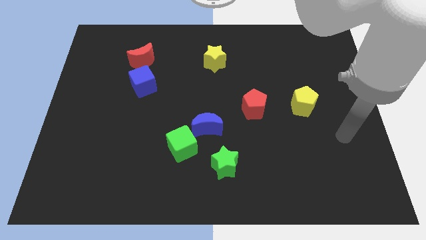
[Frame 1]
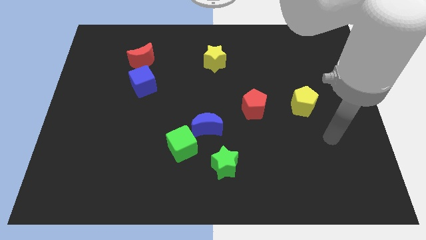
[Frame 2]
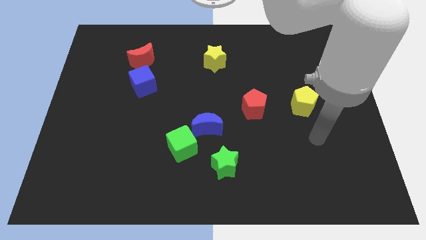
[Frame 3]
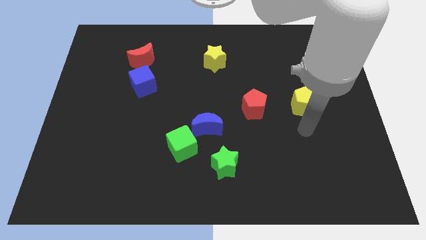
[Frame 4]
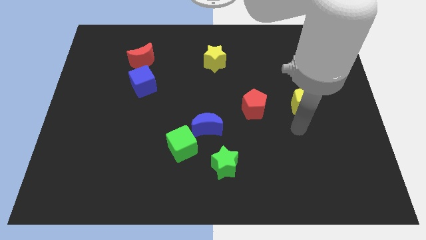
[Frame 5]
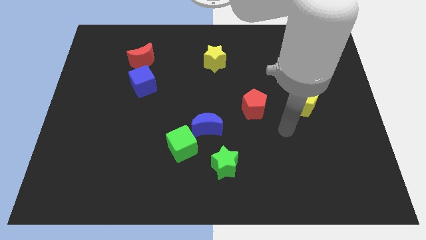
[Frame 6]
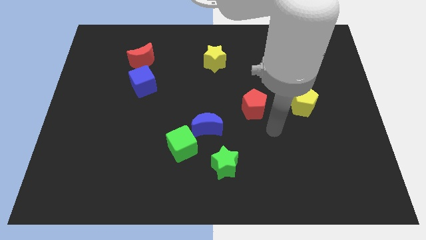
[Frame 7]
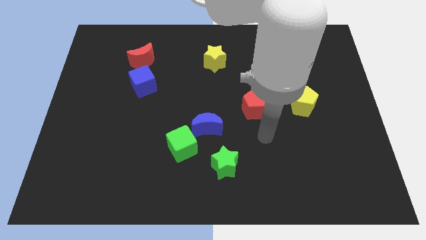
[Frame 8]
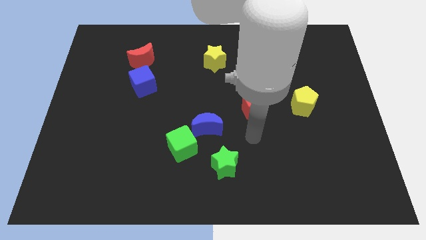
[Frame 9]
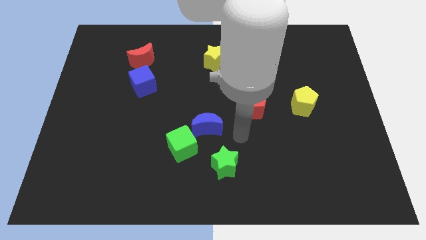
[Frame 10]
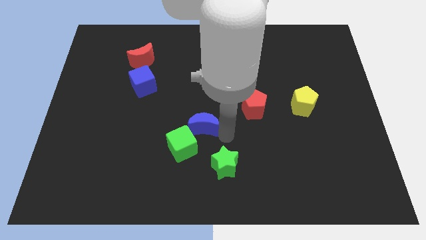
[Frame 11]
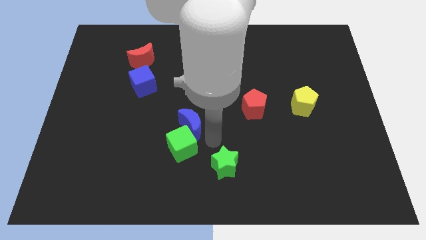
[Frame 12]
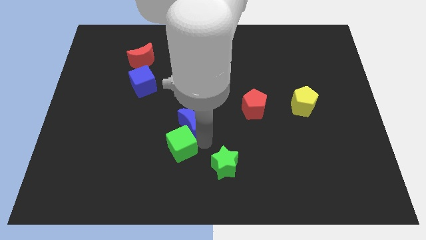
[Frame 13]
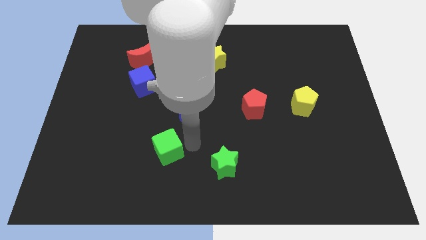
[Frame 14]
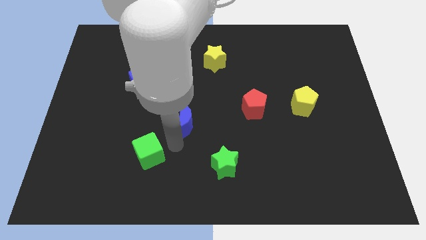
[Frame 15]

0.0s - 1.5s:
move the blue moon away from the green cube

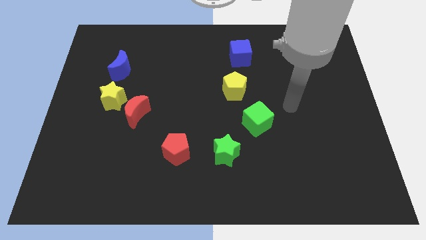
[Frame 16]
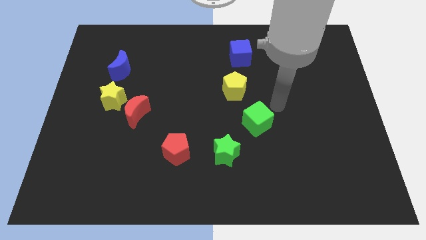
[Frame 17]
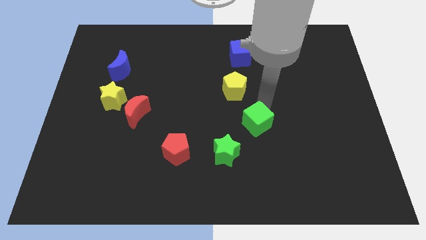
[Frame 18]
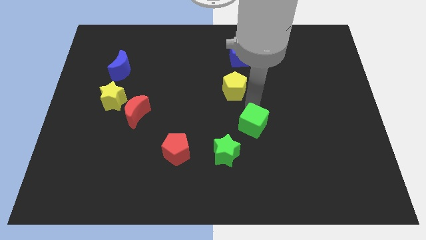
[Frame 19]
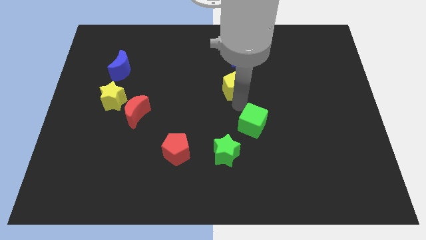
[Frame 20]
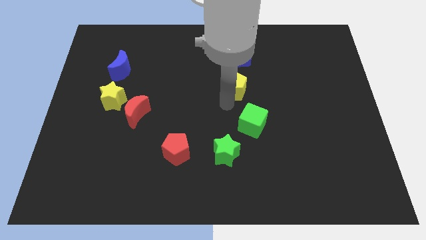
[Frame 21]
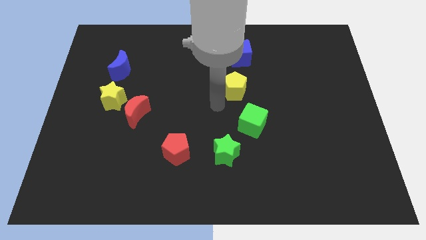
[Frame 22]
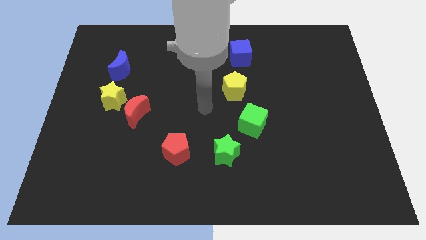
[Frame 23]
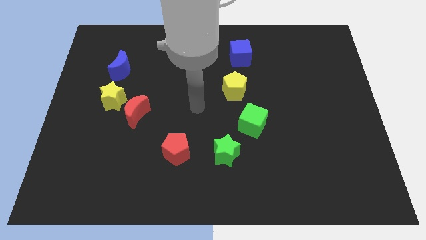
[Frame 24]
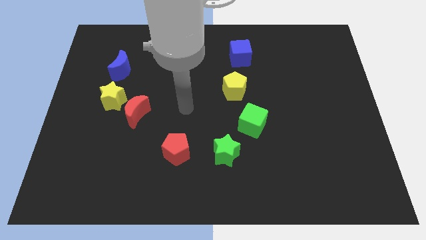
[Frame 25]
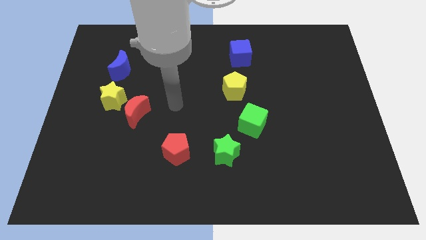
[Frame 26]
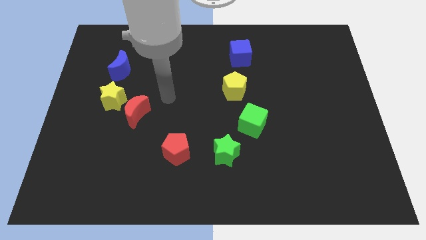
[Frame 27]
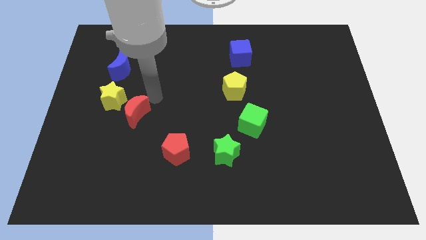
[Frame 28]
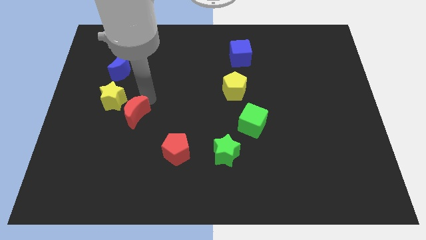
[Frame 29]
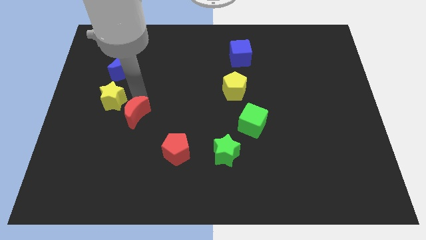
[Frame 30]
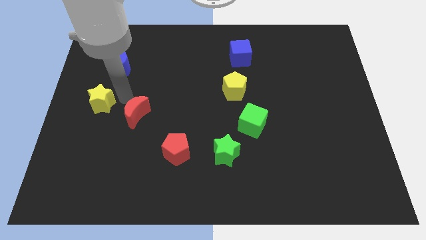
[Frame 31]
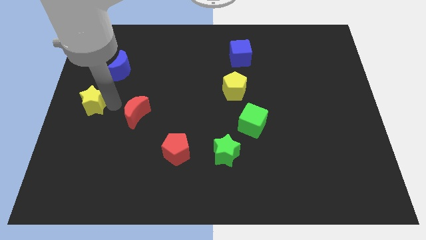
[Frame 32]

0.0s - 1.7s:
move the red moon away from the yellow star

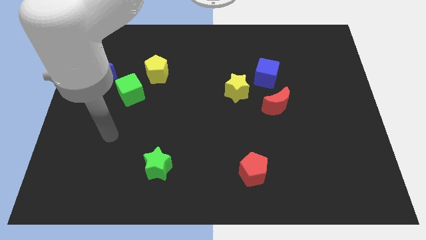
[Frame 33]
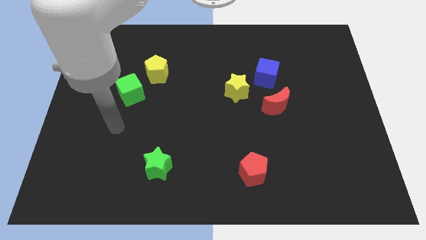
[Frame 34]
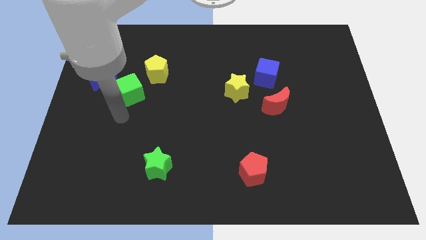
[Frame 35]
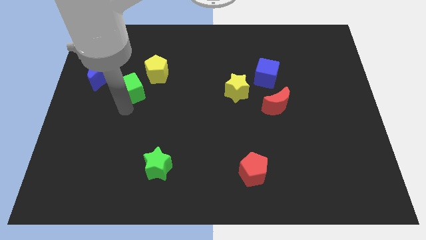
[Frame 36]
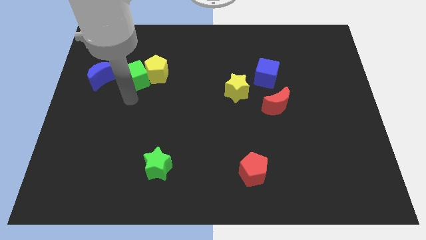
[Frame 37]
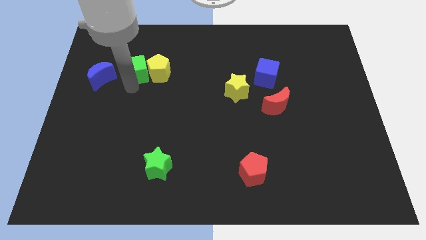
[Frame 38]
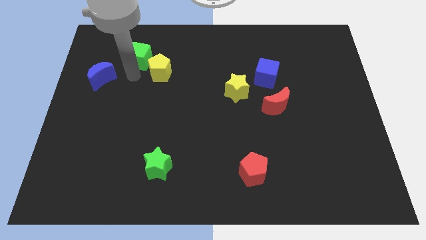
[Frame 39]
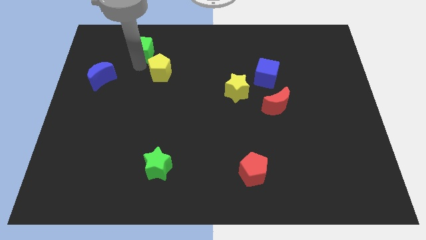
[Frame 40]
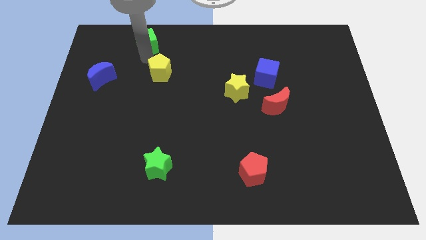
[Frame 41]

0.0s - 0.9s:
move the yellow pentagon away from the green cube

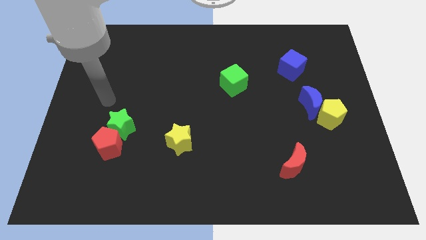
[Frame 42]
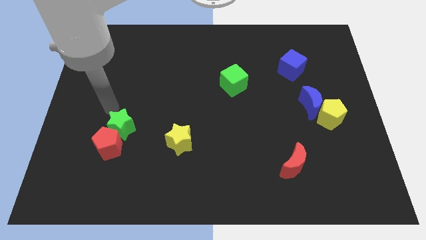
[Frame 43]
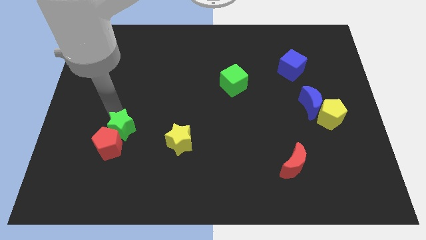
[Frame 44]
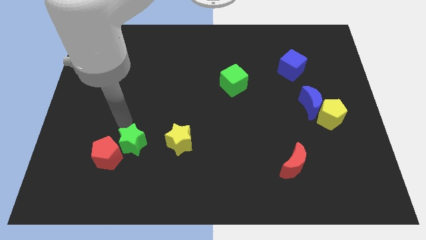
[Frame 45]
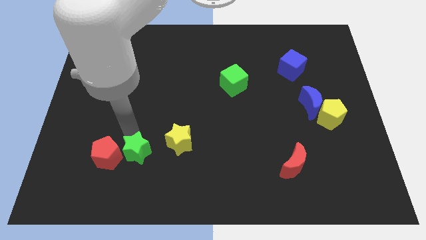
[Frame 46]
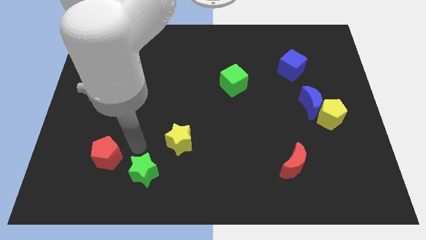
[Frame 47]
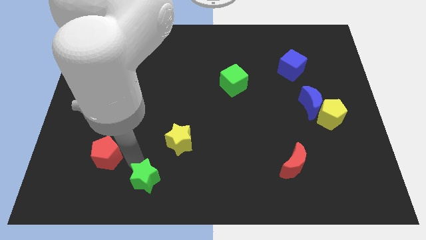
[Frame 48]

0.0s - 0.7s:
separate the red pentagon from the green star

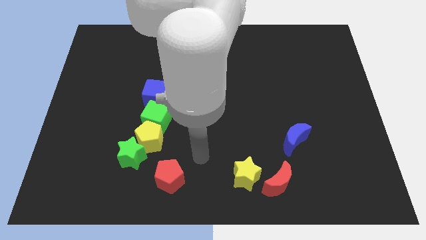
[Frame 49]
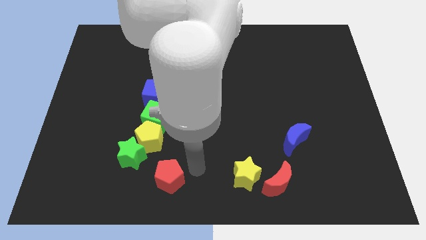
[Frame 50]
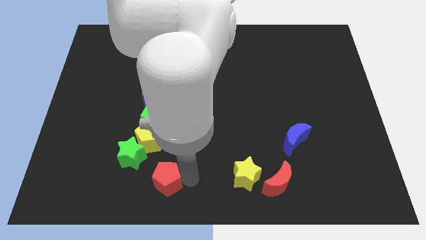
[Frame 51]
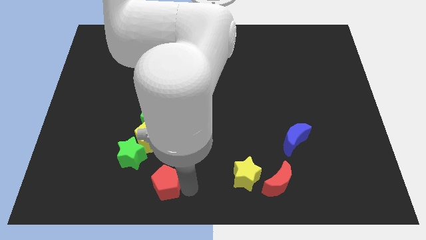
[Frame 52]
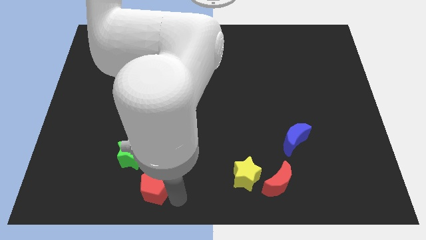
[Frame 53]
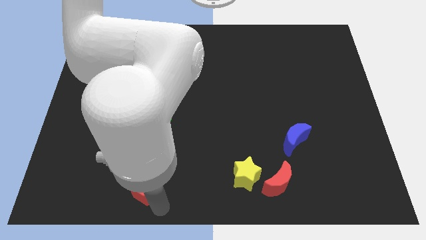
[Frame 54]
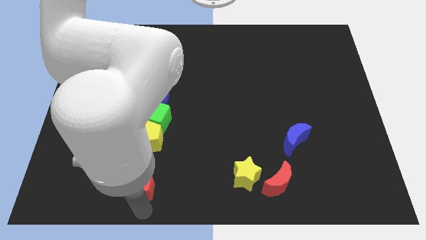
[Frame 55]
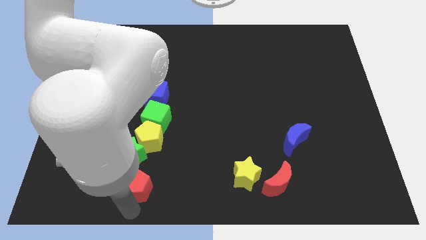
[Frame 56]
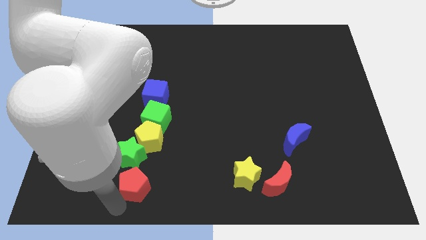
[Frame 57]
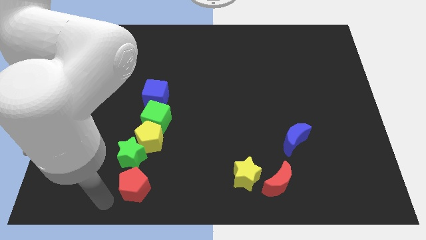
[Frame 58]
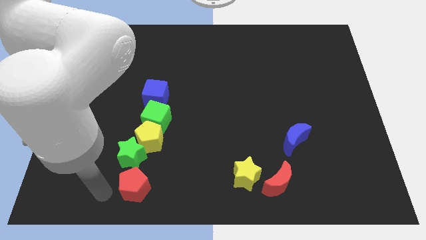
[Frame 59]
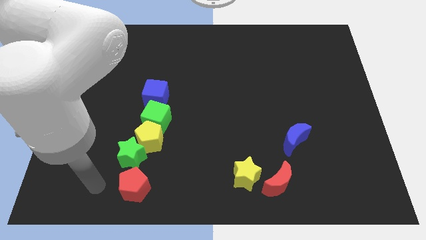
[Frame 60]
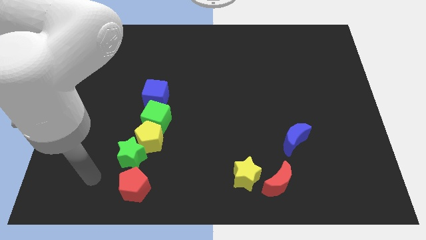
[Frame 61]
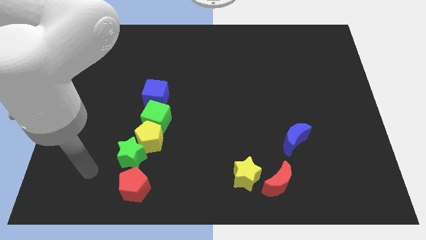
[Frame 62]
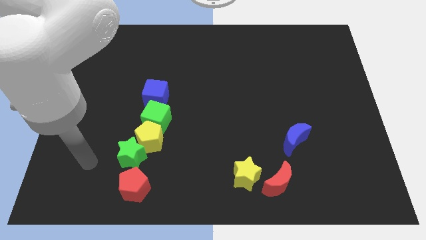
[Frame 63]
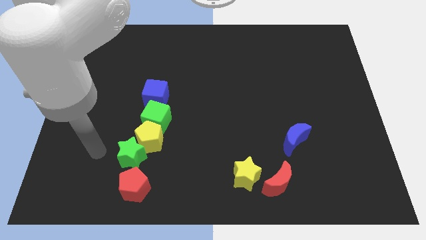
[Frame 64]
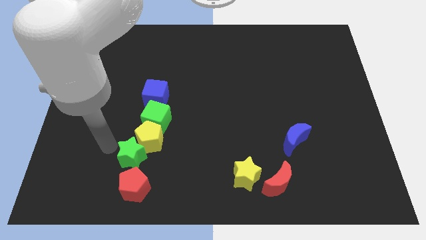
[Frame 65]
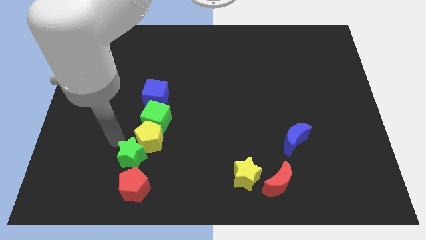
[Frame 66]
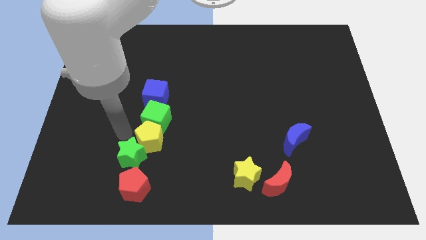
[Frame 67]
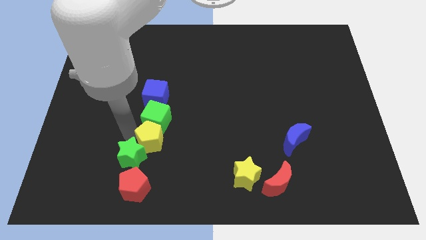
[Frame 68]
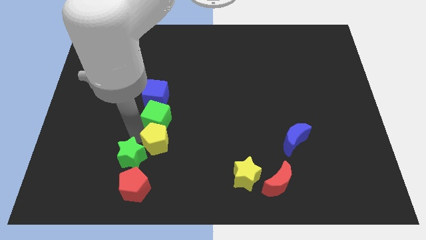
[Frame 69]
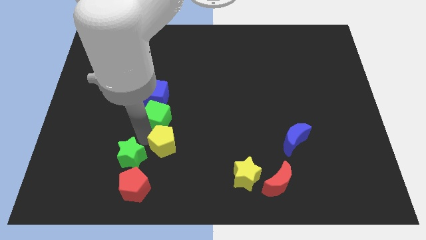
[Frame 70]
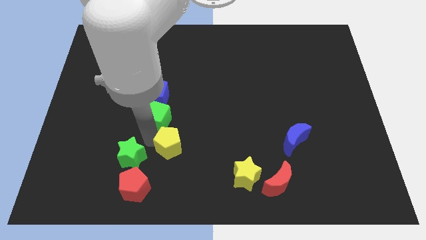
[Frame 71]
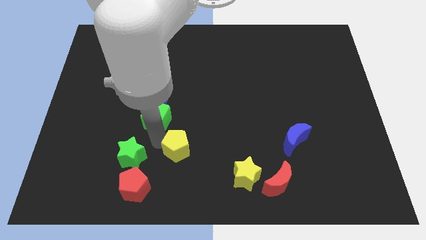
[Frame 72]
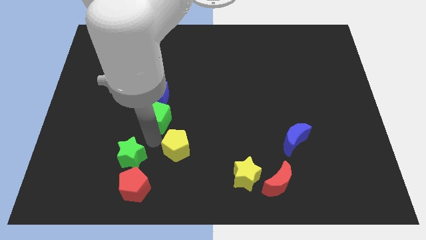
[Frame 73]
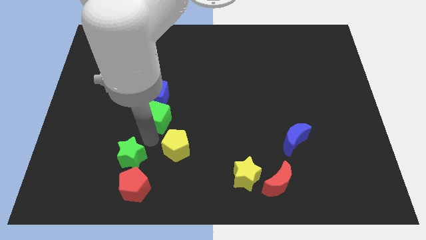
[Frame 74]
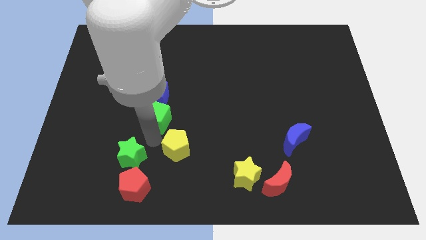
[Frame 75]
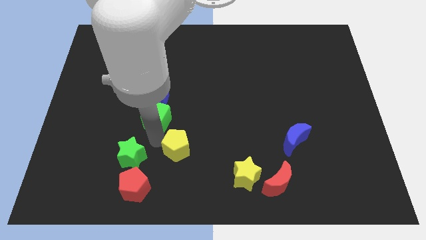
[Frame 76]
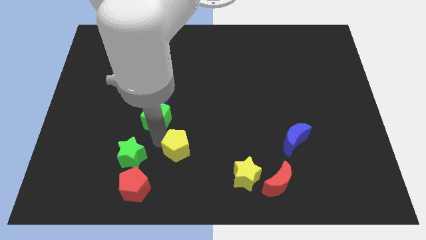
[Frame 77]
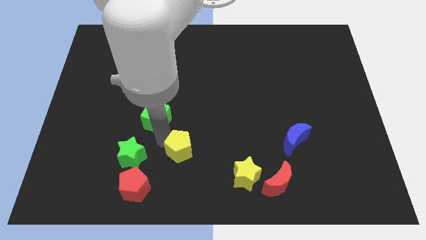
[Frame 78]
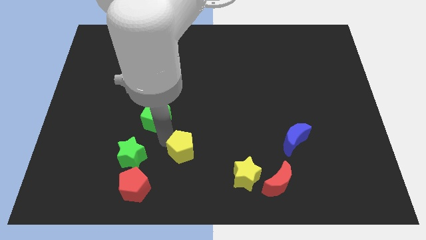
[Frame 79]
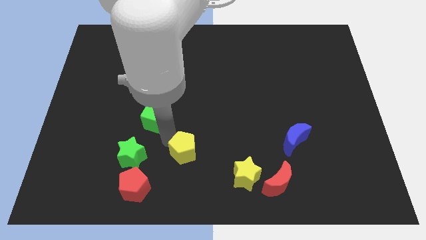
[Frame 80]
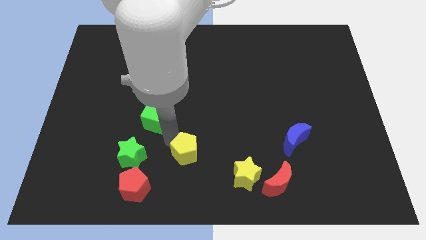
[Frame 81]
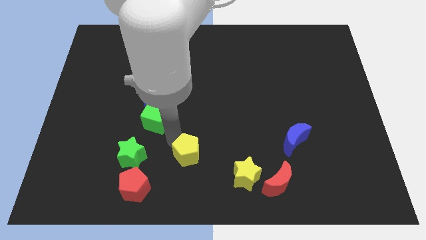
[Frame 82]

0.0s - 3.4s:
separate the yellow pentagon from the green cube and green star

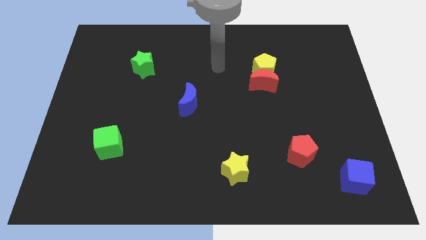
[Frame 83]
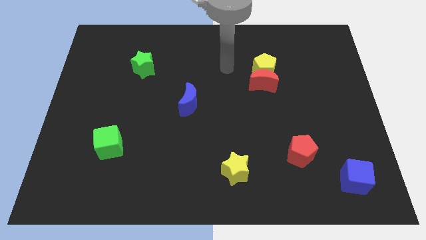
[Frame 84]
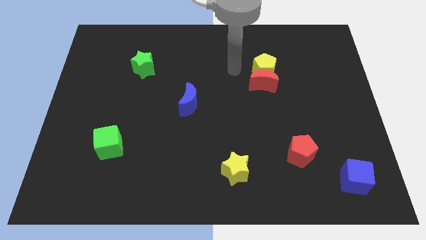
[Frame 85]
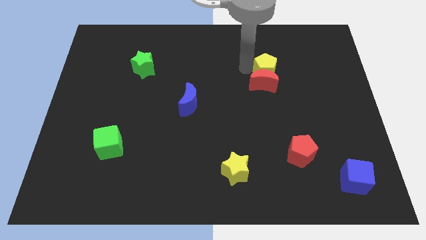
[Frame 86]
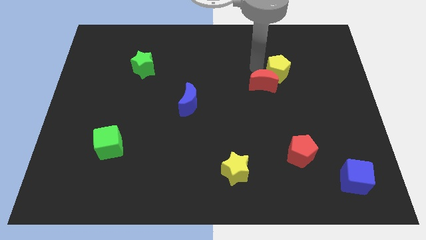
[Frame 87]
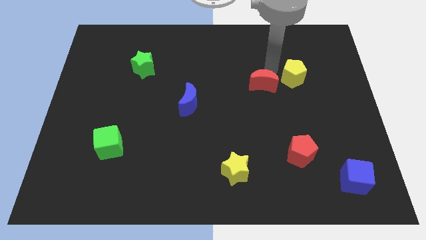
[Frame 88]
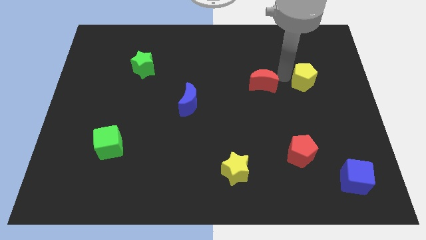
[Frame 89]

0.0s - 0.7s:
move the red moon away from the yellow pentagon

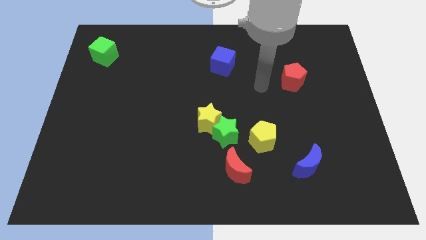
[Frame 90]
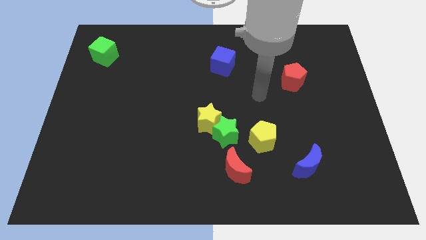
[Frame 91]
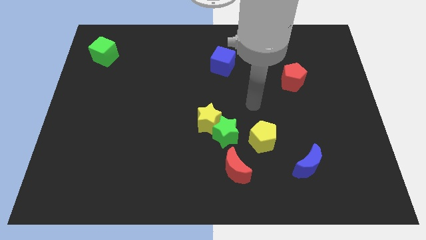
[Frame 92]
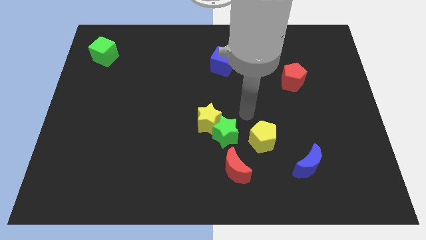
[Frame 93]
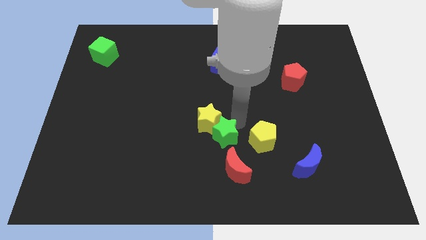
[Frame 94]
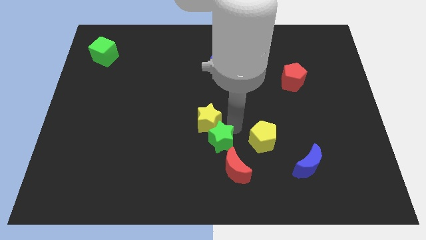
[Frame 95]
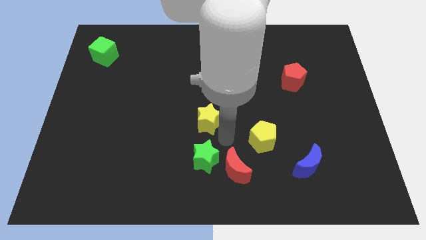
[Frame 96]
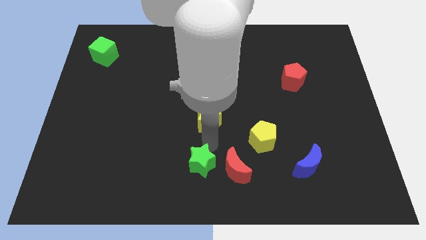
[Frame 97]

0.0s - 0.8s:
move the yellow star away from the green star
